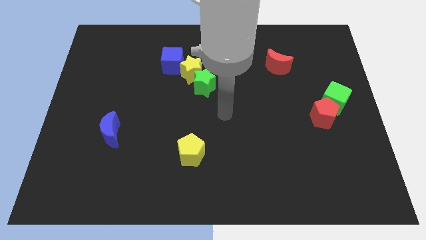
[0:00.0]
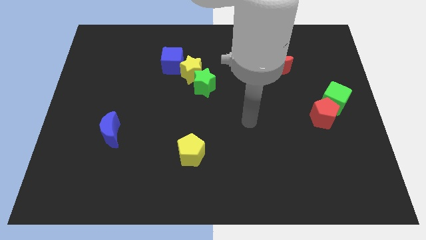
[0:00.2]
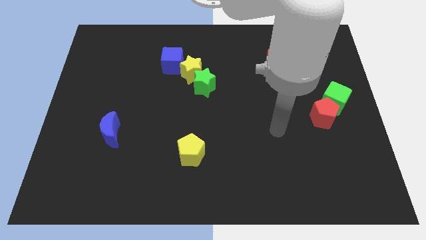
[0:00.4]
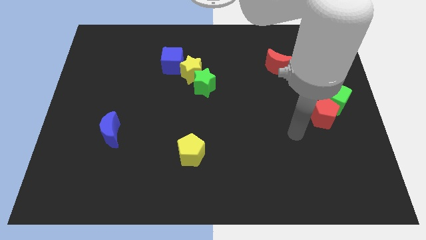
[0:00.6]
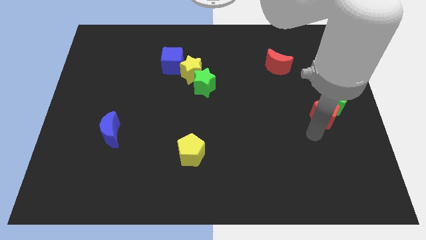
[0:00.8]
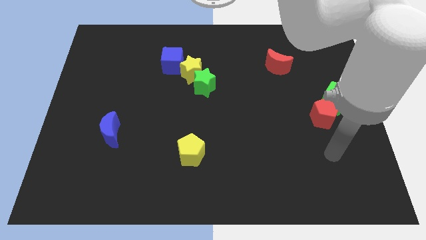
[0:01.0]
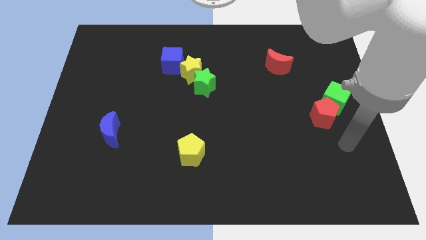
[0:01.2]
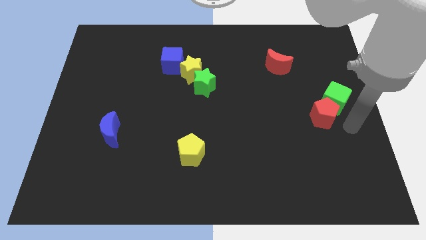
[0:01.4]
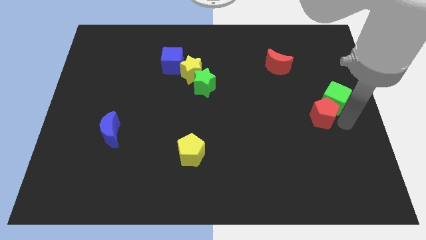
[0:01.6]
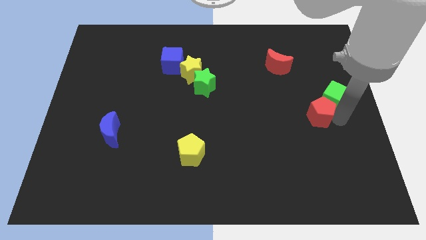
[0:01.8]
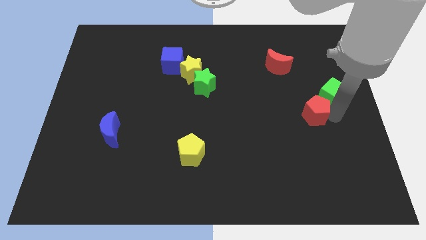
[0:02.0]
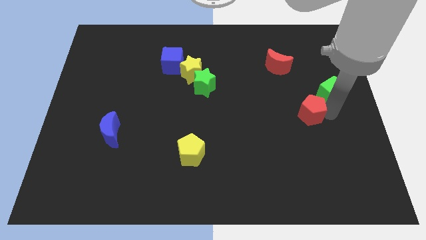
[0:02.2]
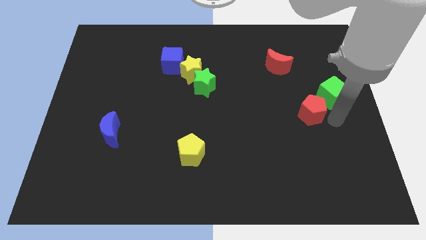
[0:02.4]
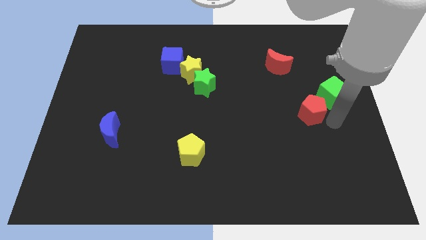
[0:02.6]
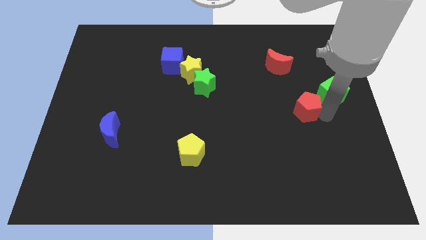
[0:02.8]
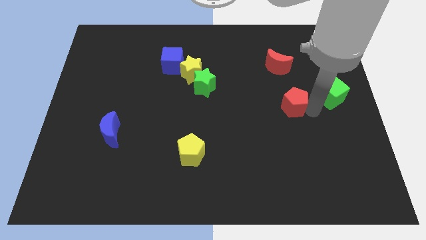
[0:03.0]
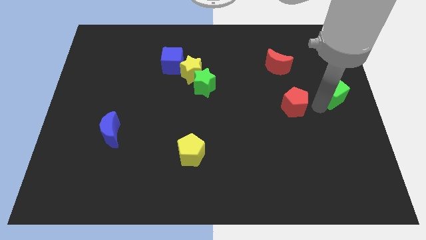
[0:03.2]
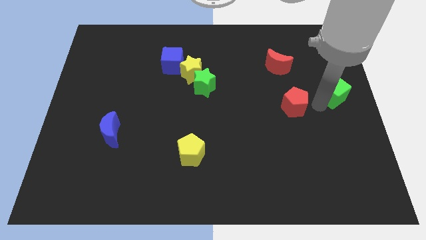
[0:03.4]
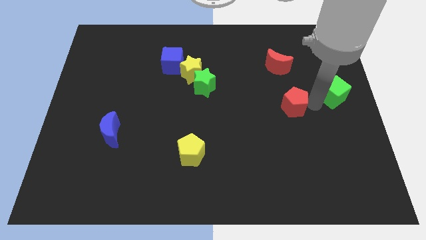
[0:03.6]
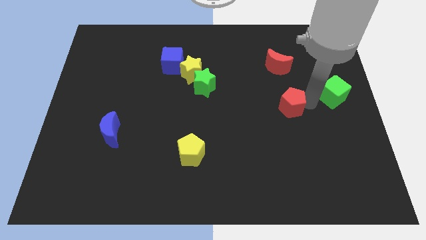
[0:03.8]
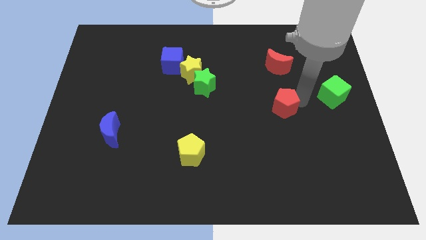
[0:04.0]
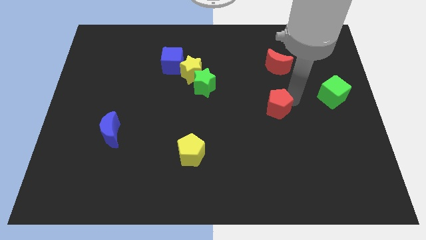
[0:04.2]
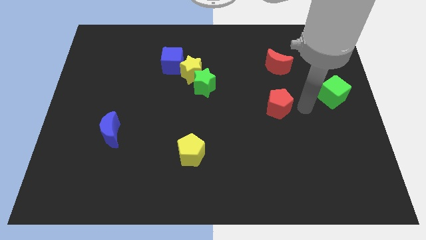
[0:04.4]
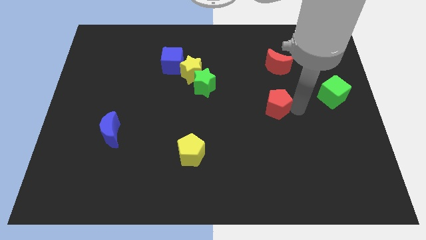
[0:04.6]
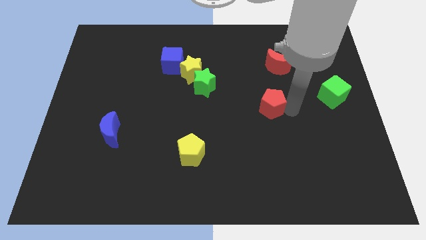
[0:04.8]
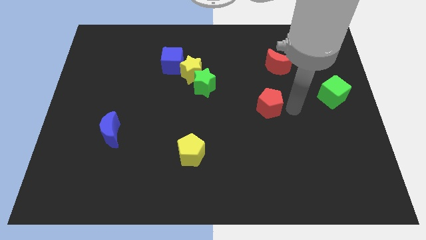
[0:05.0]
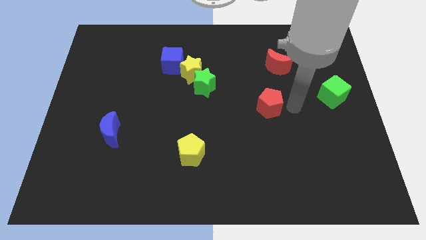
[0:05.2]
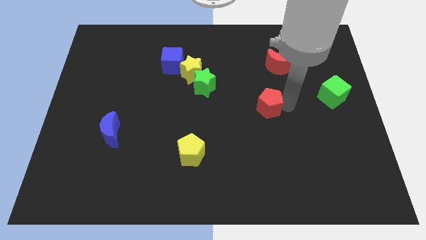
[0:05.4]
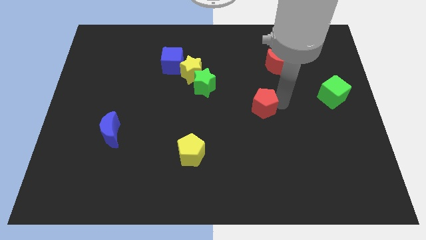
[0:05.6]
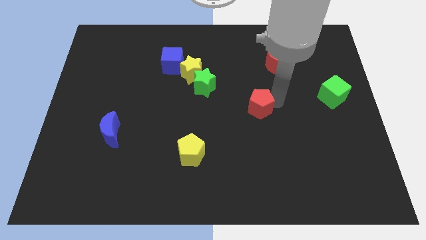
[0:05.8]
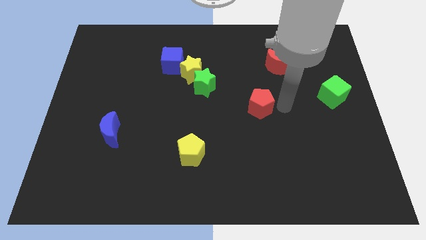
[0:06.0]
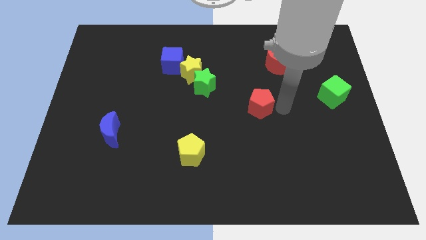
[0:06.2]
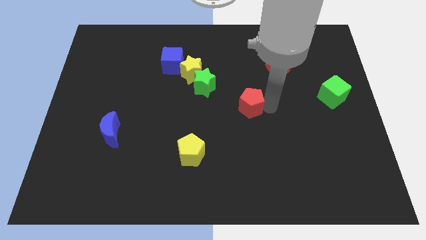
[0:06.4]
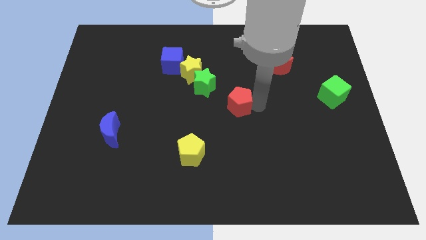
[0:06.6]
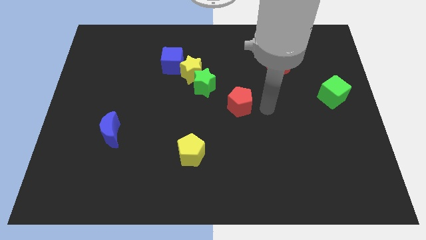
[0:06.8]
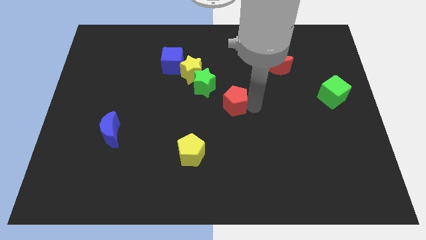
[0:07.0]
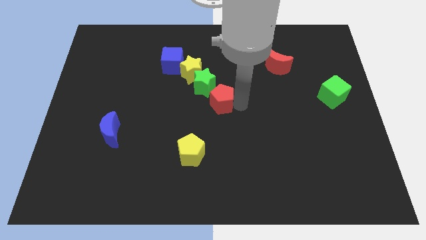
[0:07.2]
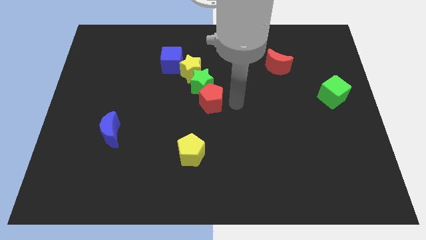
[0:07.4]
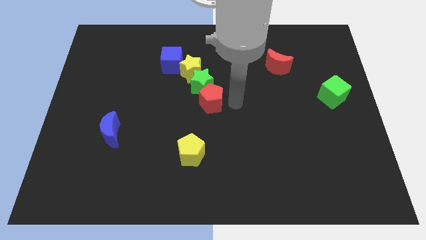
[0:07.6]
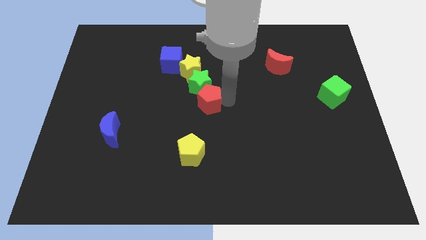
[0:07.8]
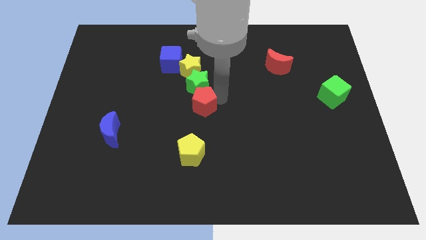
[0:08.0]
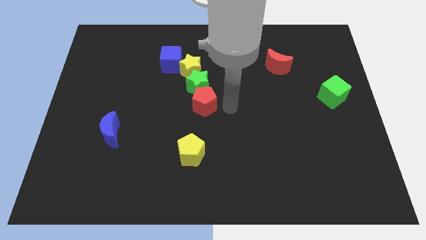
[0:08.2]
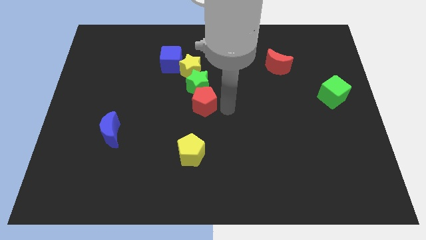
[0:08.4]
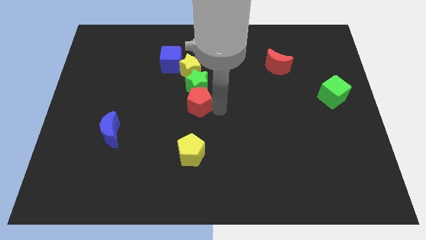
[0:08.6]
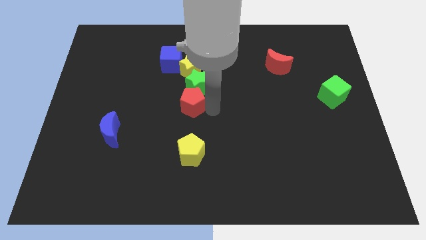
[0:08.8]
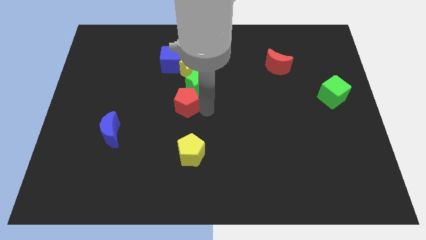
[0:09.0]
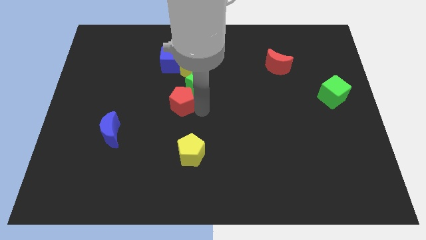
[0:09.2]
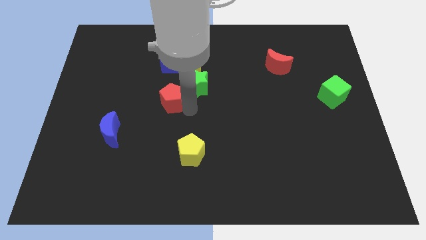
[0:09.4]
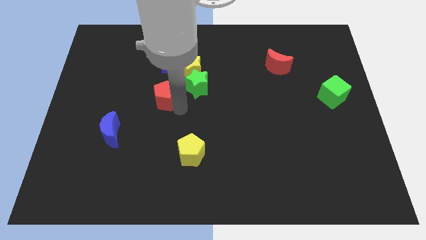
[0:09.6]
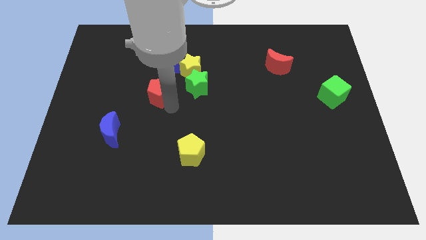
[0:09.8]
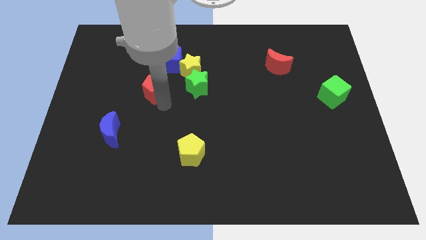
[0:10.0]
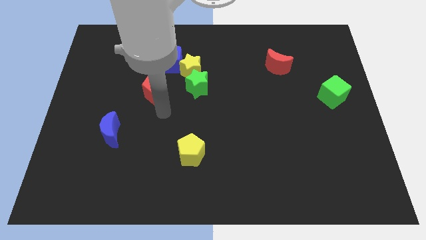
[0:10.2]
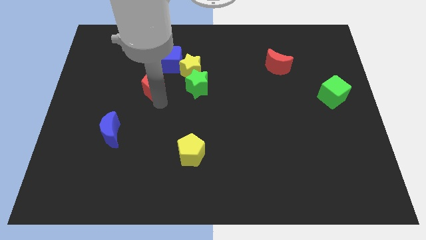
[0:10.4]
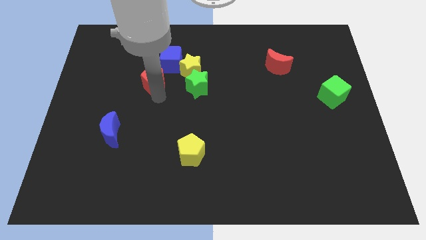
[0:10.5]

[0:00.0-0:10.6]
slide the red pentagon to the left side of the yellow star

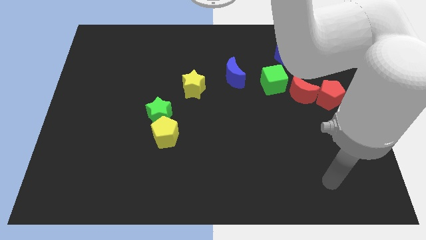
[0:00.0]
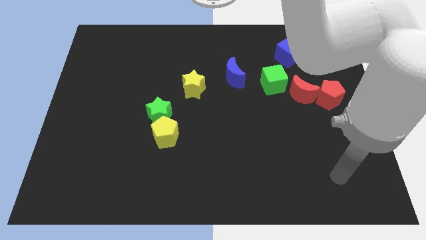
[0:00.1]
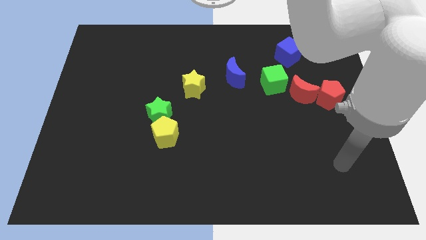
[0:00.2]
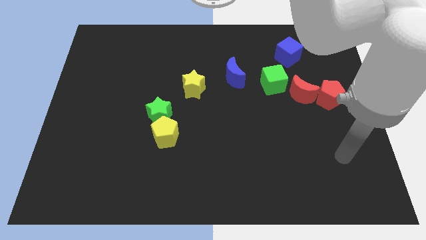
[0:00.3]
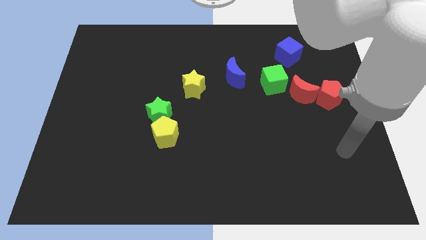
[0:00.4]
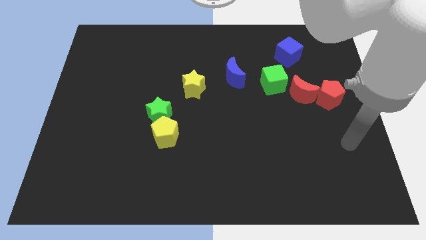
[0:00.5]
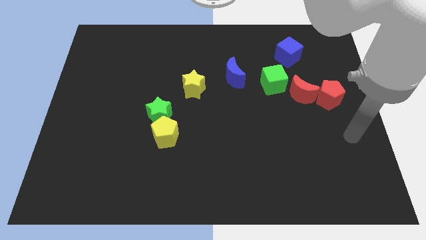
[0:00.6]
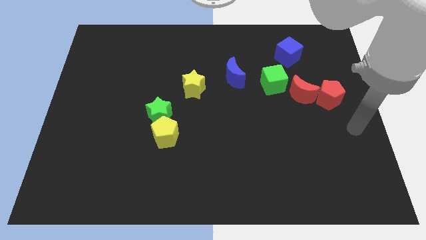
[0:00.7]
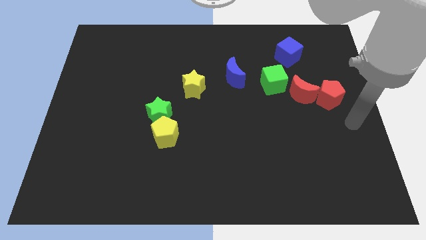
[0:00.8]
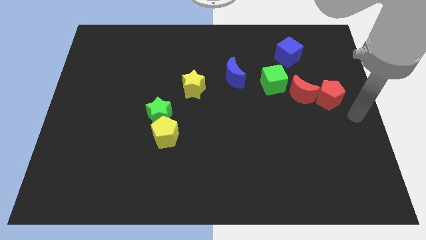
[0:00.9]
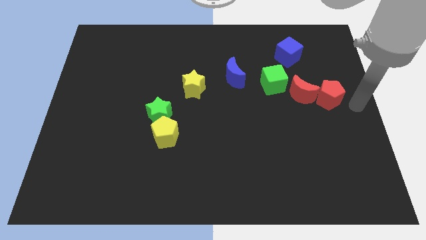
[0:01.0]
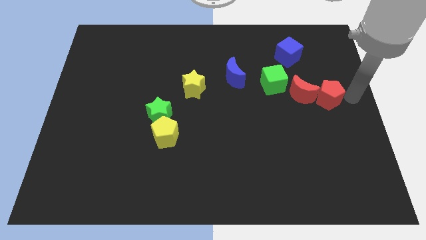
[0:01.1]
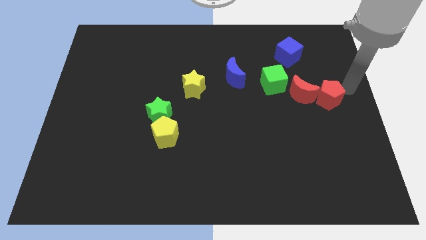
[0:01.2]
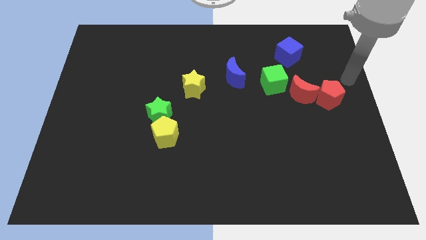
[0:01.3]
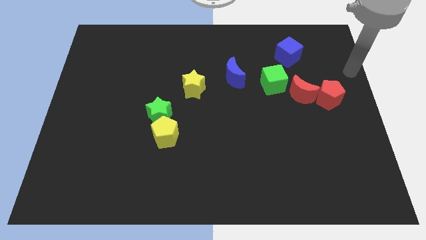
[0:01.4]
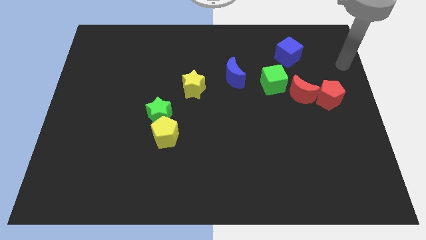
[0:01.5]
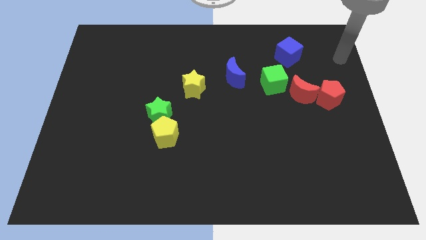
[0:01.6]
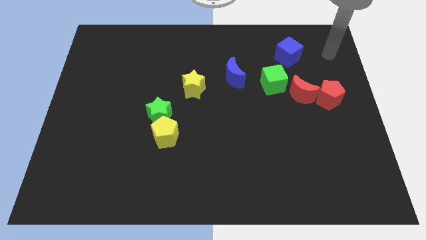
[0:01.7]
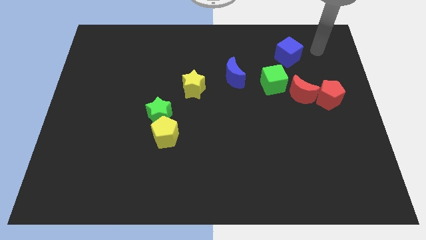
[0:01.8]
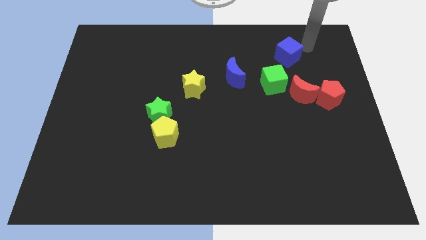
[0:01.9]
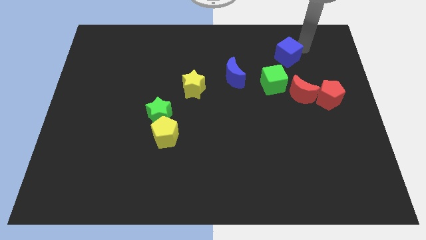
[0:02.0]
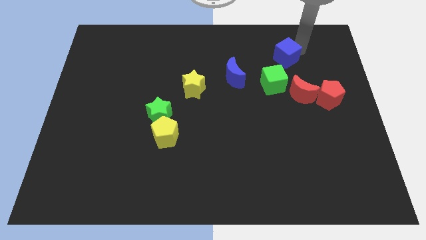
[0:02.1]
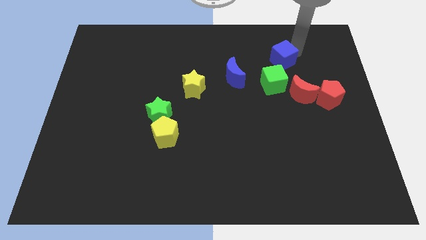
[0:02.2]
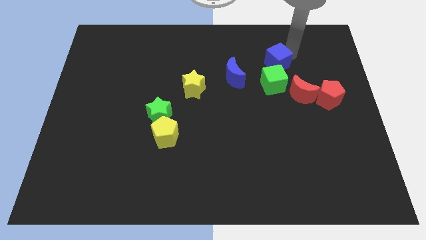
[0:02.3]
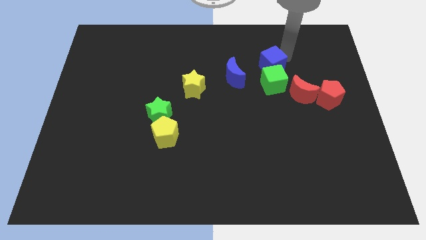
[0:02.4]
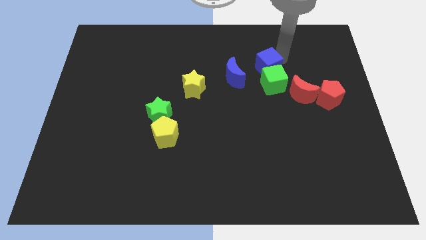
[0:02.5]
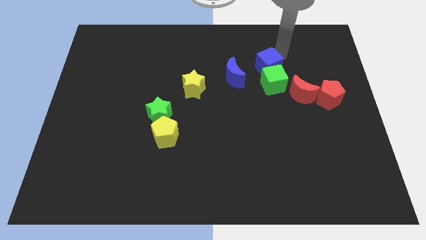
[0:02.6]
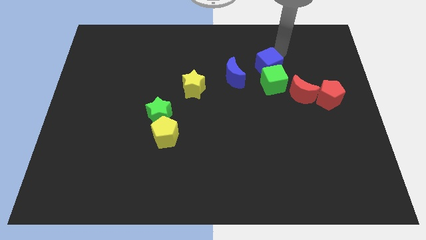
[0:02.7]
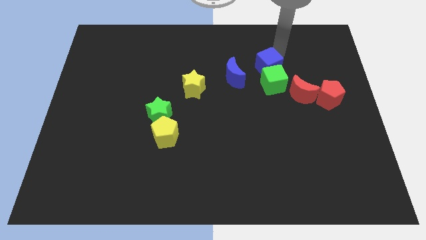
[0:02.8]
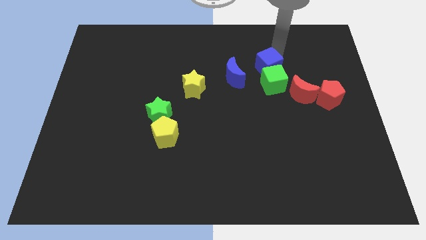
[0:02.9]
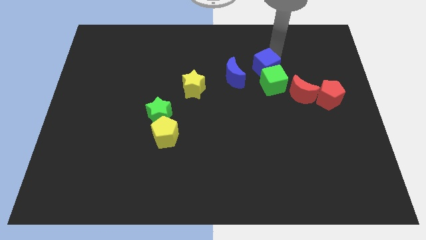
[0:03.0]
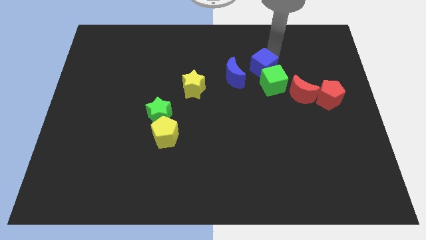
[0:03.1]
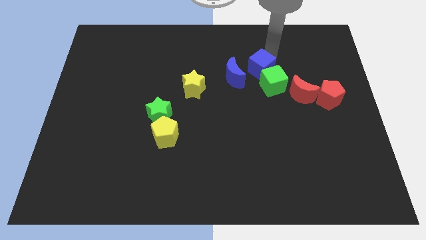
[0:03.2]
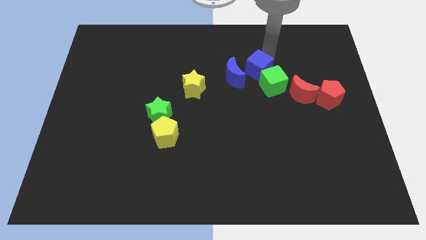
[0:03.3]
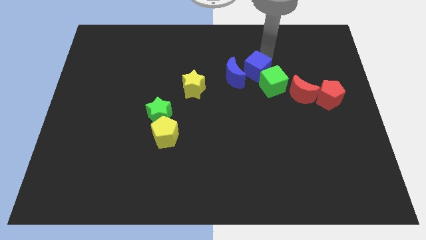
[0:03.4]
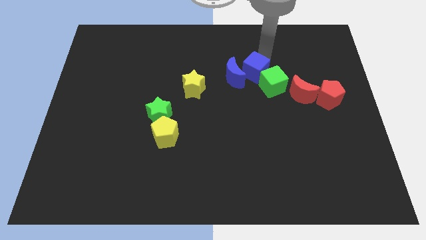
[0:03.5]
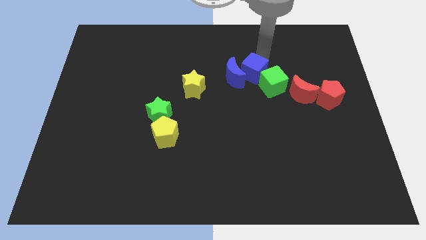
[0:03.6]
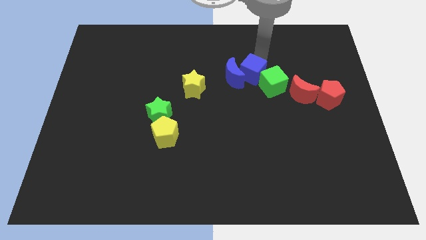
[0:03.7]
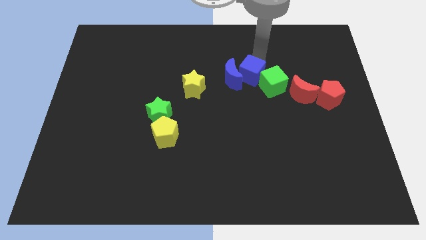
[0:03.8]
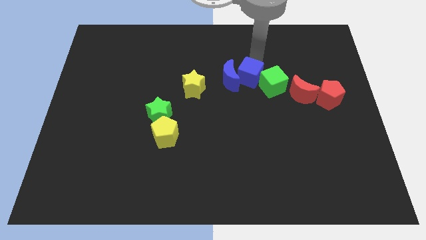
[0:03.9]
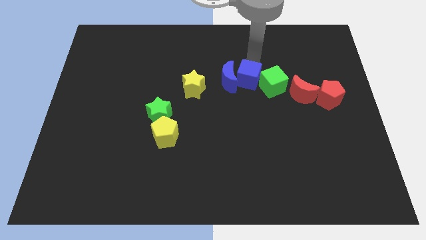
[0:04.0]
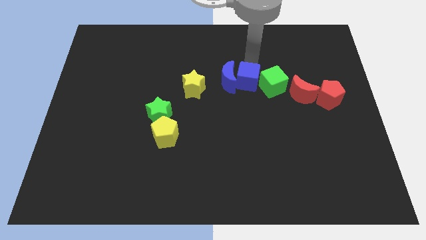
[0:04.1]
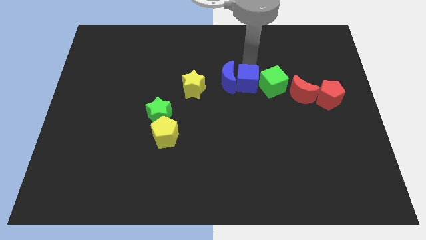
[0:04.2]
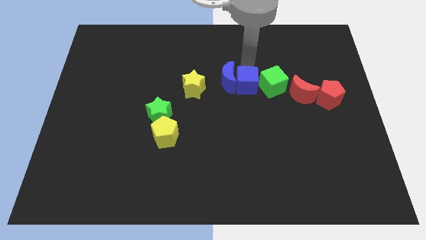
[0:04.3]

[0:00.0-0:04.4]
push the blue cube diagonally down and to the left of the green cube
